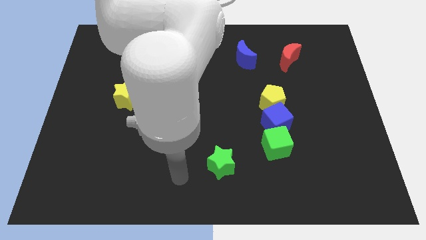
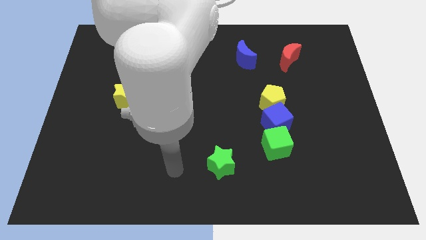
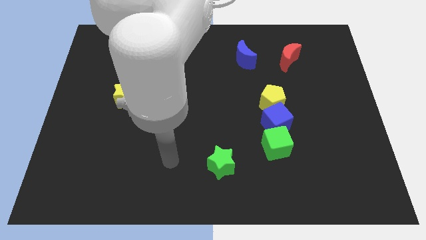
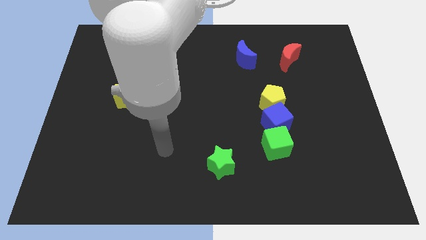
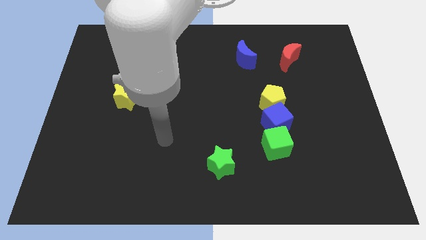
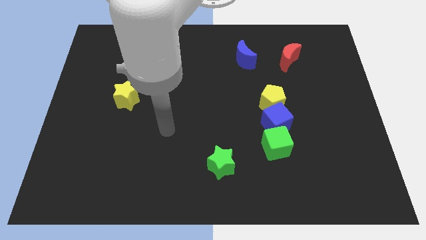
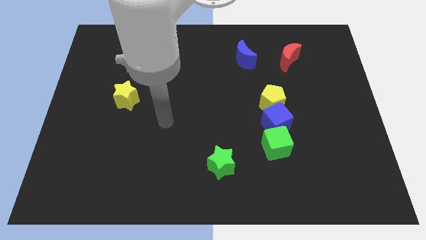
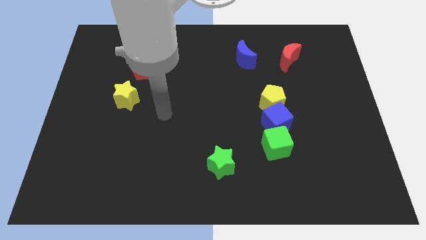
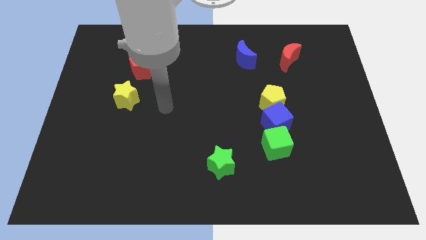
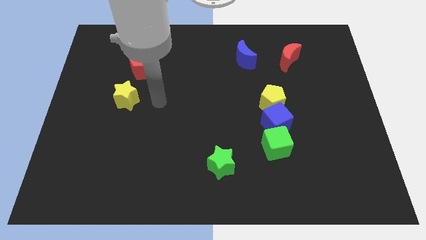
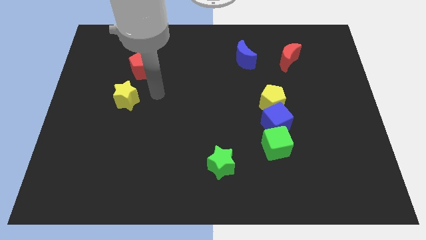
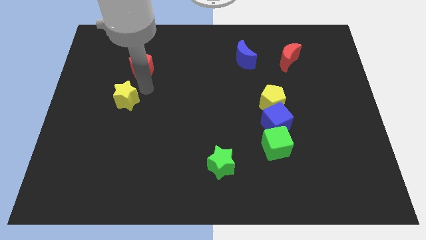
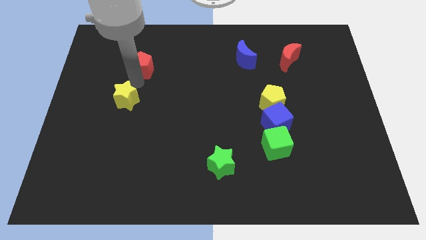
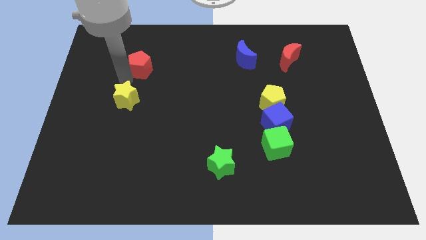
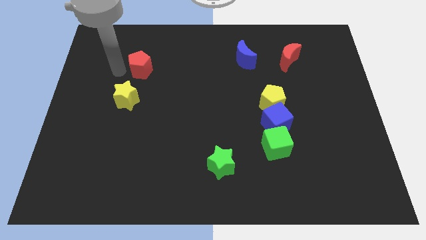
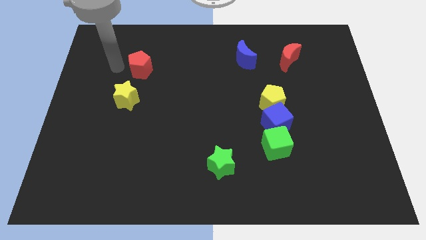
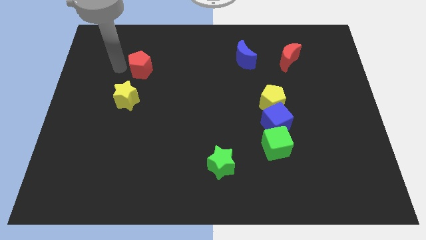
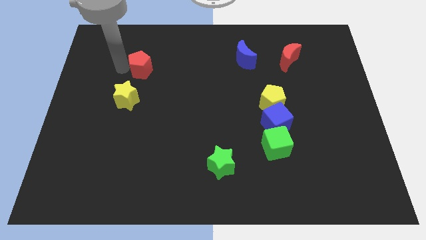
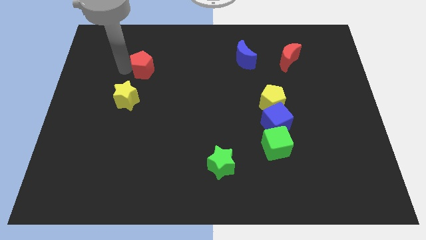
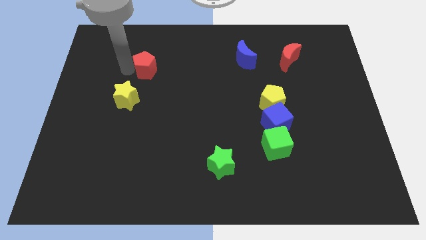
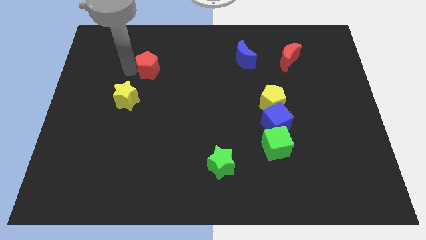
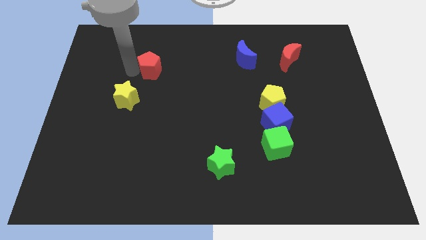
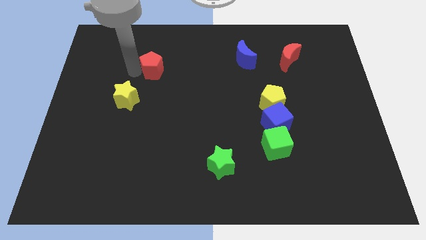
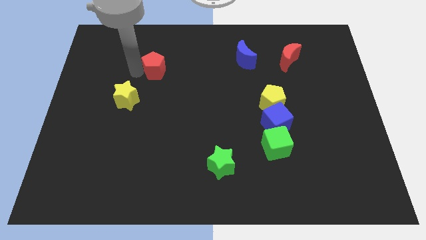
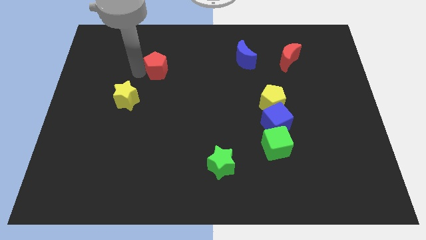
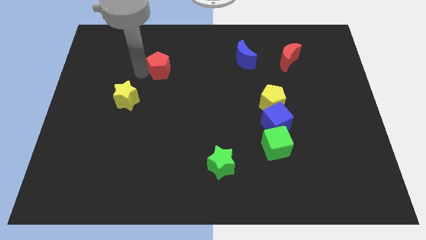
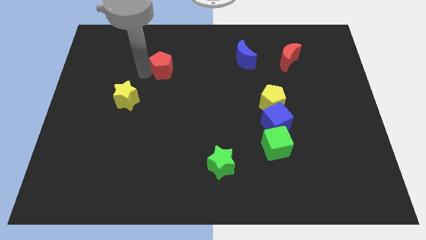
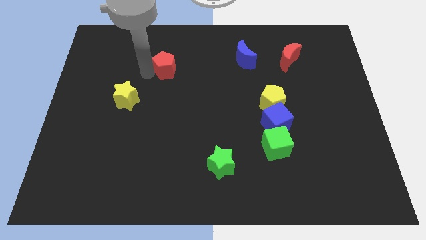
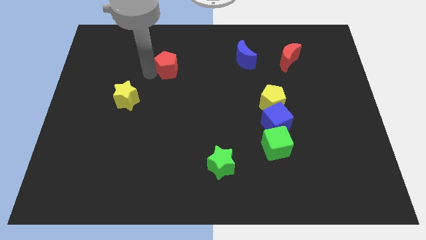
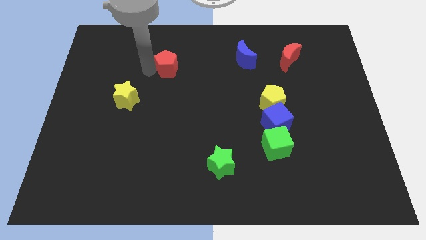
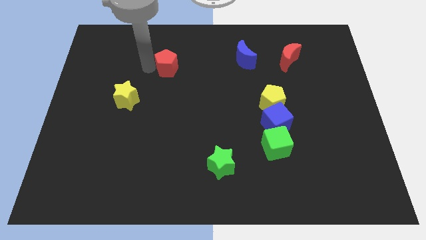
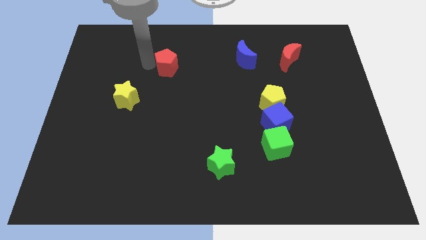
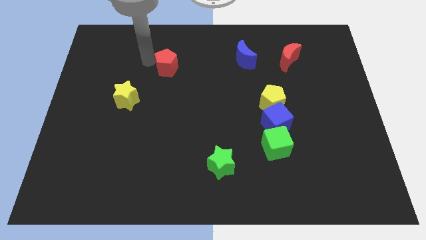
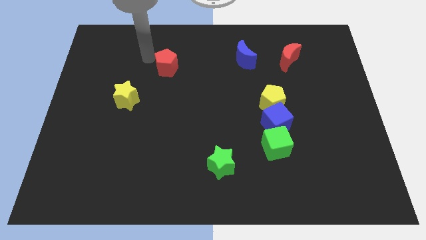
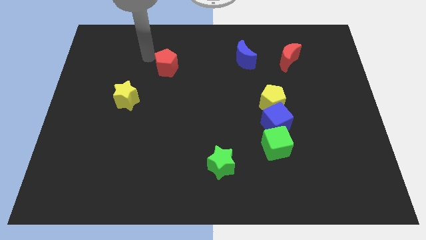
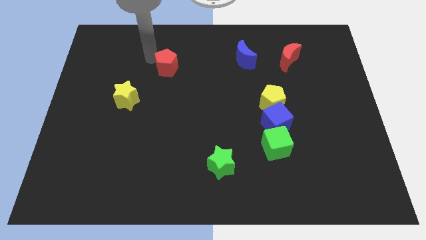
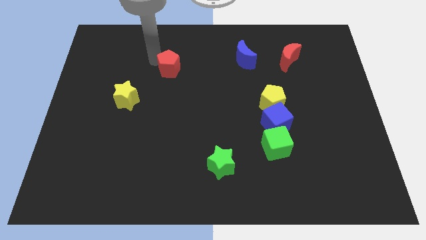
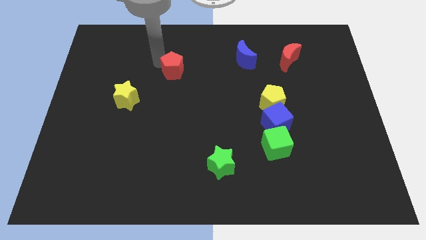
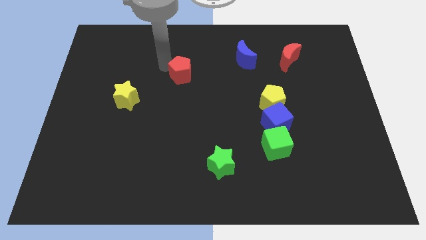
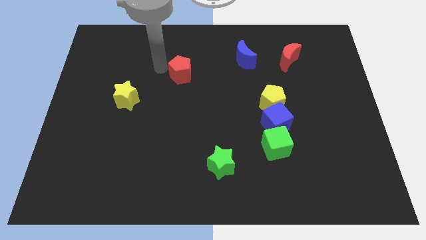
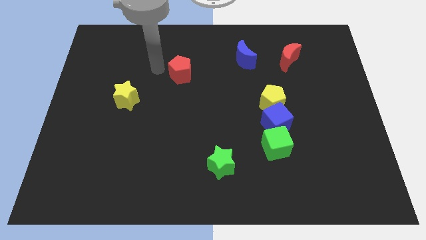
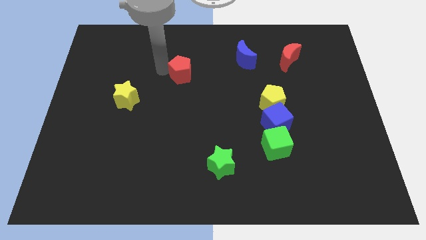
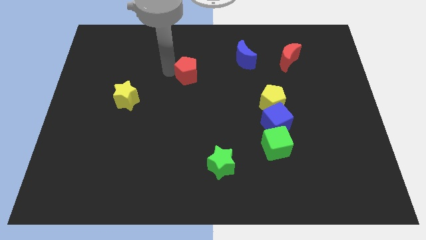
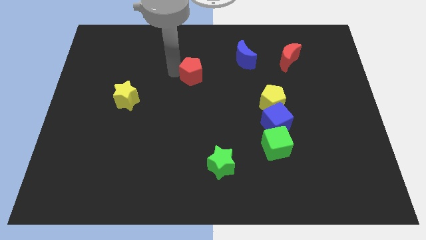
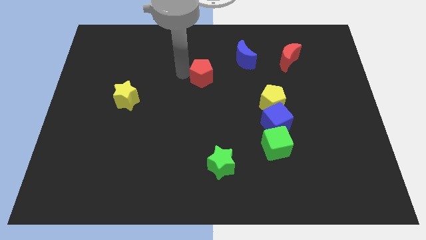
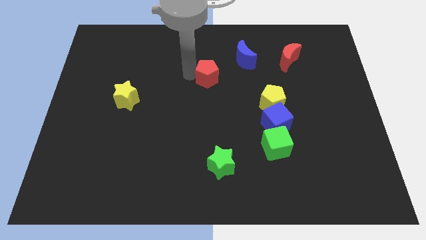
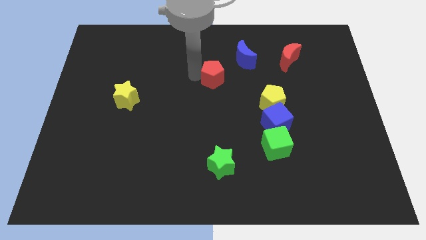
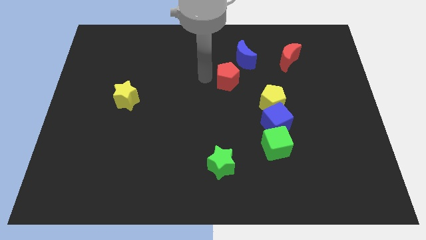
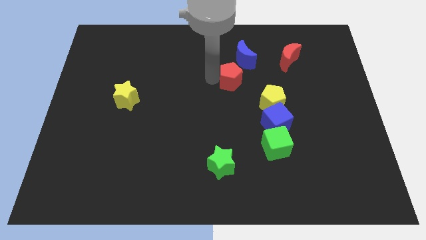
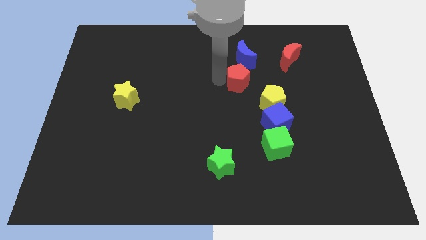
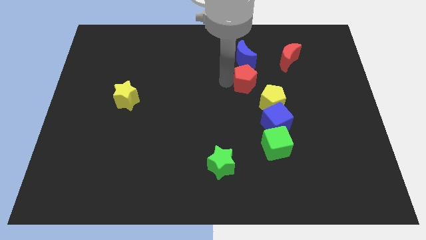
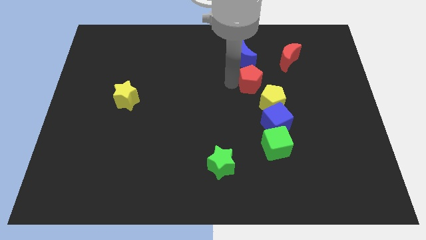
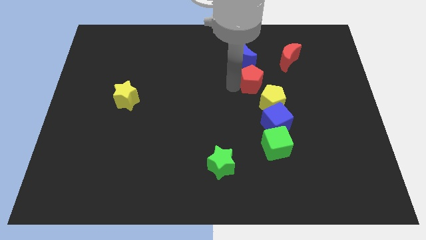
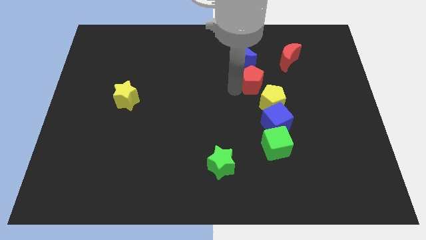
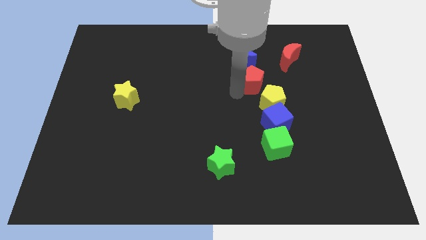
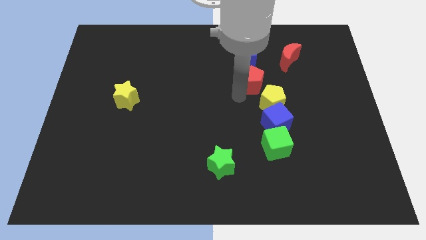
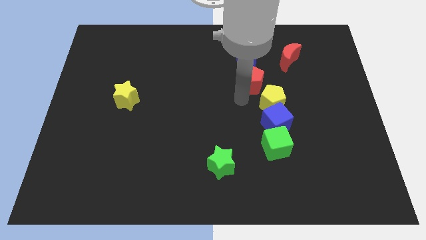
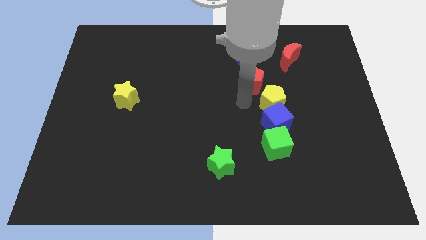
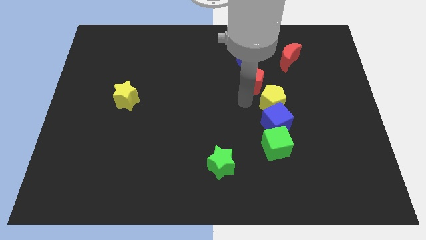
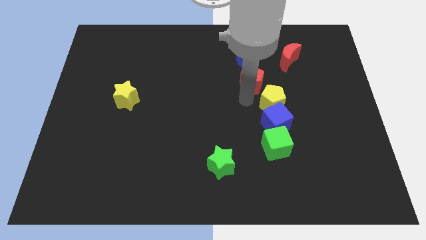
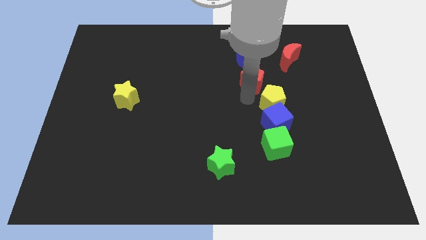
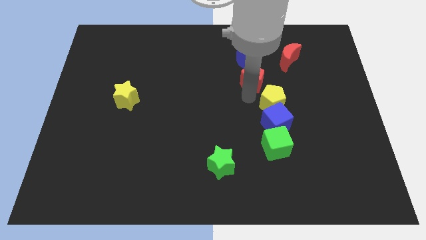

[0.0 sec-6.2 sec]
slide the red pentagon to the bottom left of the red moon
